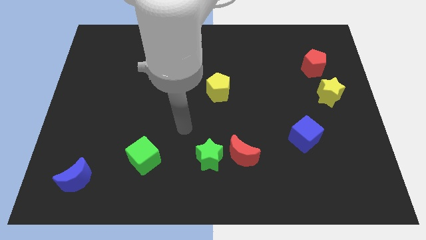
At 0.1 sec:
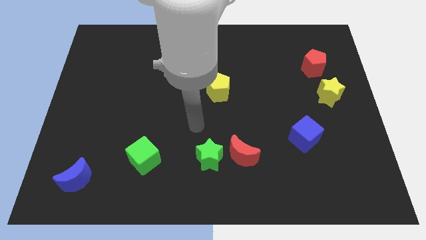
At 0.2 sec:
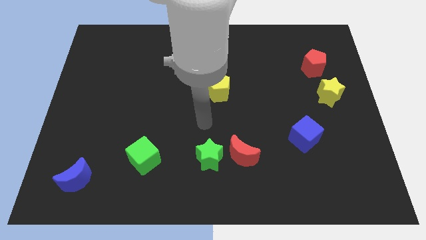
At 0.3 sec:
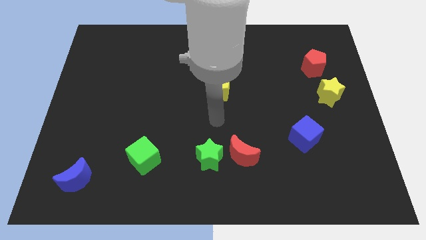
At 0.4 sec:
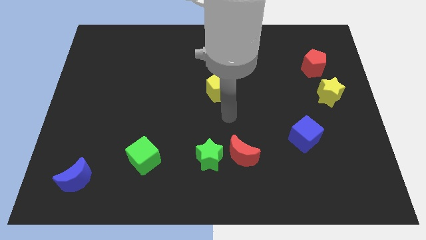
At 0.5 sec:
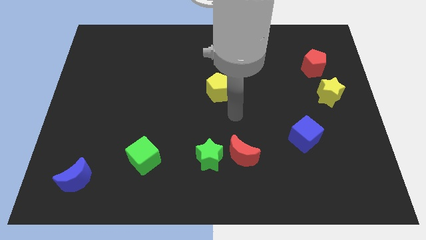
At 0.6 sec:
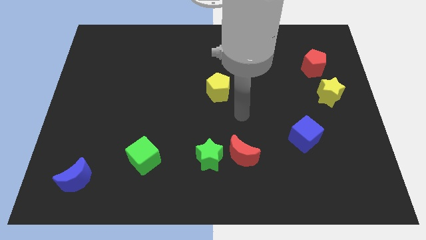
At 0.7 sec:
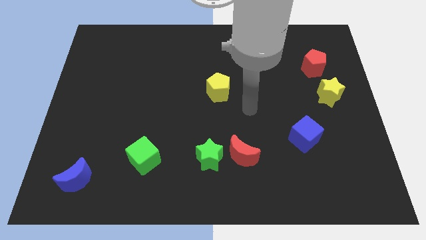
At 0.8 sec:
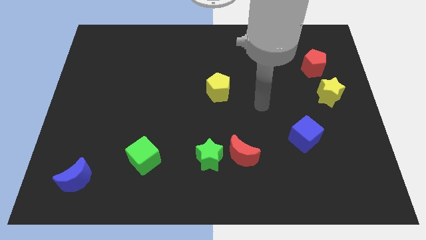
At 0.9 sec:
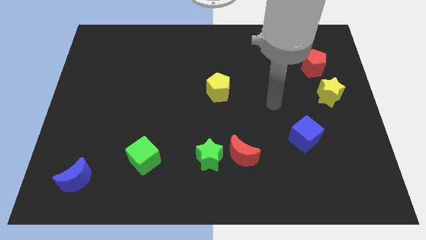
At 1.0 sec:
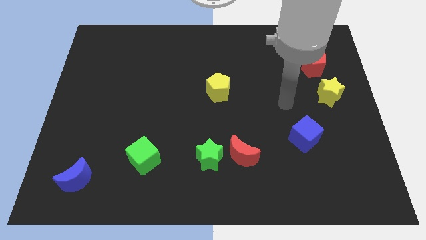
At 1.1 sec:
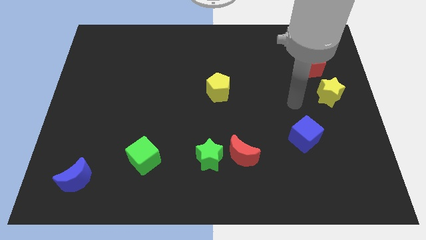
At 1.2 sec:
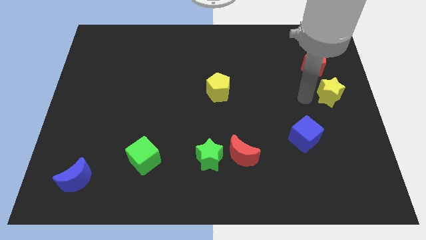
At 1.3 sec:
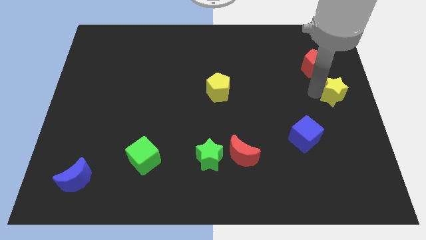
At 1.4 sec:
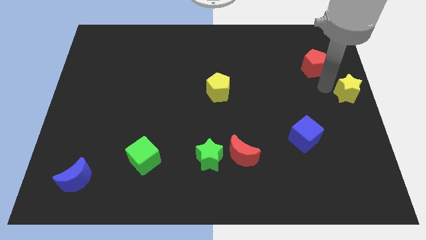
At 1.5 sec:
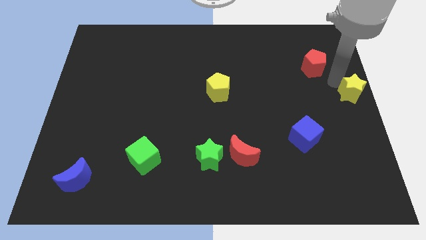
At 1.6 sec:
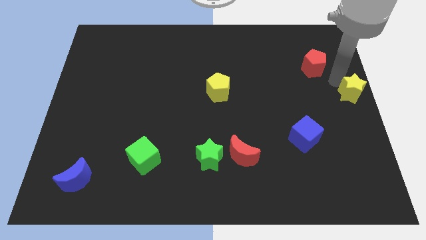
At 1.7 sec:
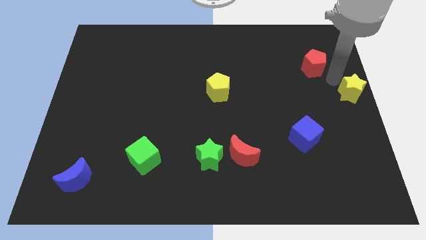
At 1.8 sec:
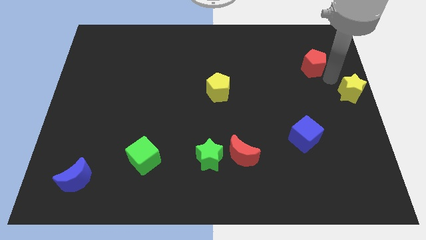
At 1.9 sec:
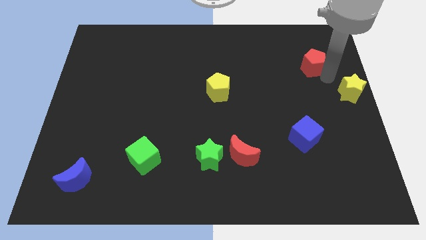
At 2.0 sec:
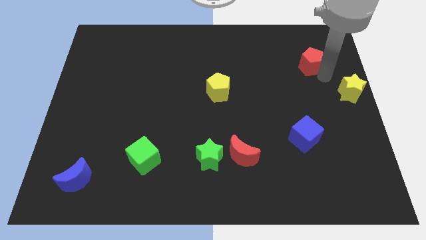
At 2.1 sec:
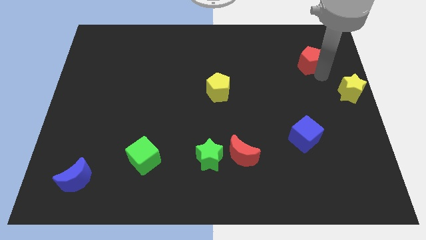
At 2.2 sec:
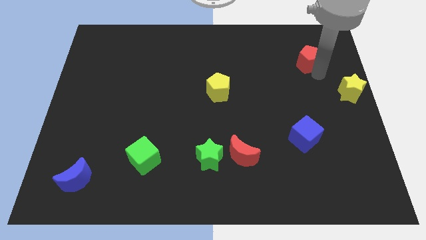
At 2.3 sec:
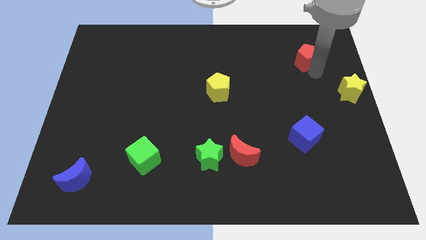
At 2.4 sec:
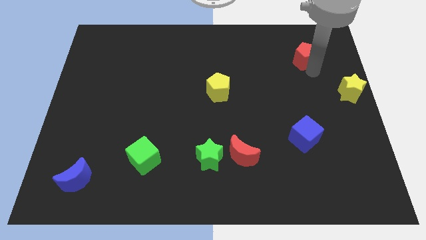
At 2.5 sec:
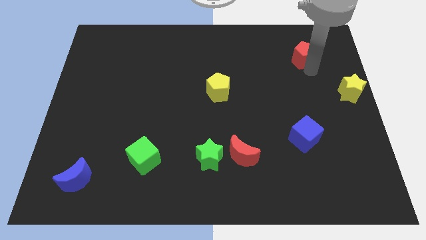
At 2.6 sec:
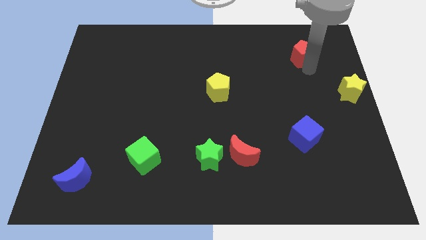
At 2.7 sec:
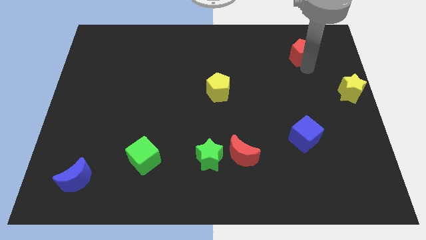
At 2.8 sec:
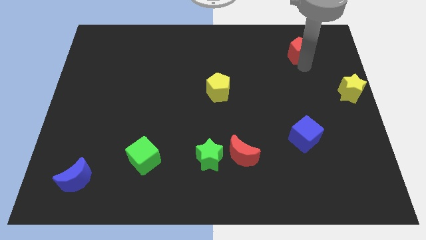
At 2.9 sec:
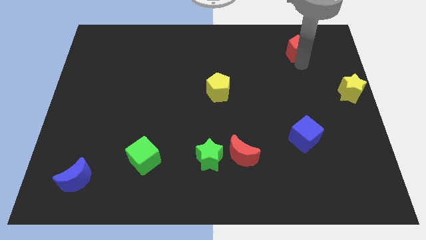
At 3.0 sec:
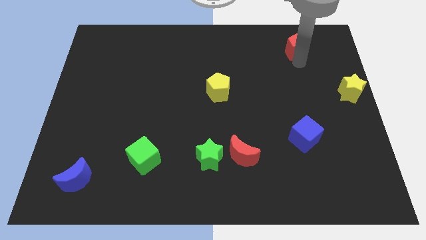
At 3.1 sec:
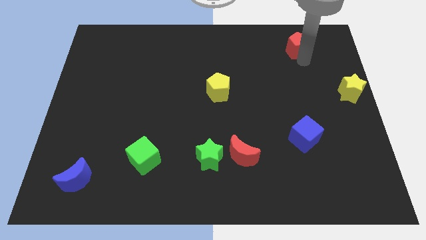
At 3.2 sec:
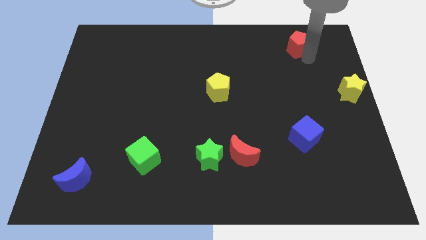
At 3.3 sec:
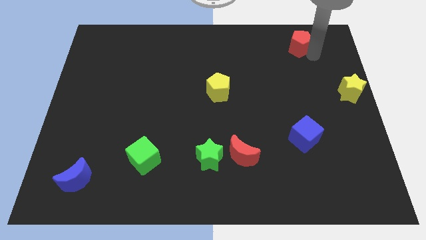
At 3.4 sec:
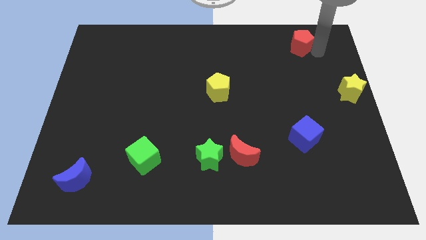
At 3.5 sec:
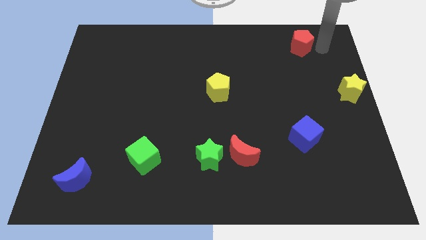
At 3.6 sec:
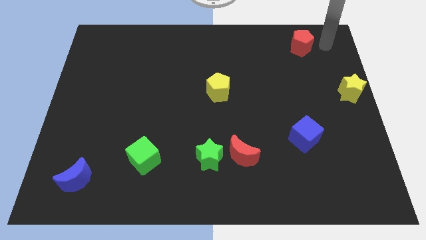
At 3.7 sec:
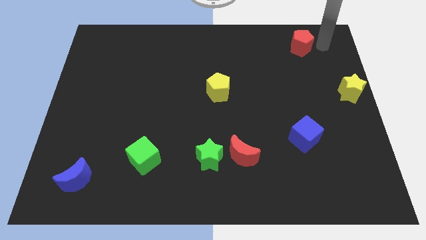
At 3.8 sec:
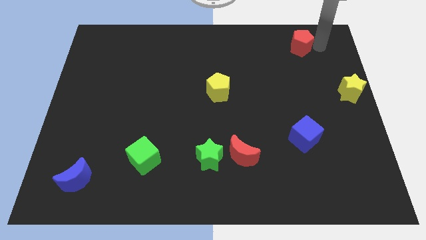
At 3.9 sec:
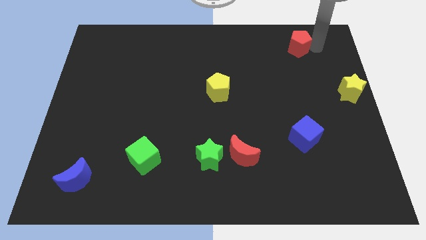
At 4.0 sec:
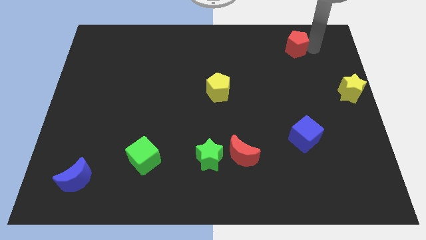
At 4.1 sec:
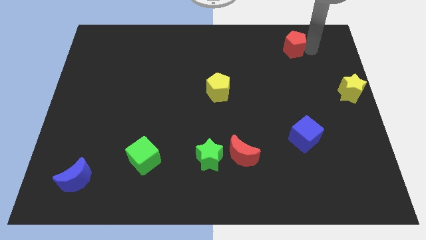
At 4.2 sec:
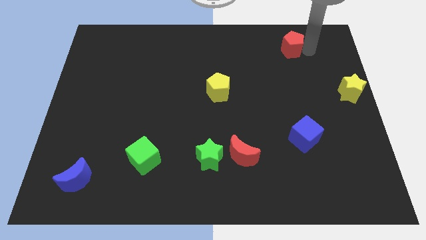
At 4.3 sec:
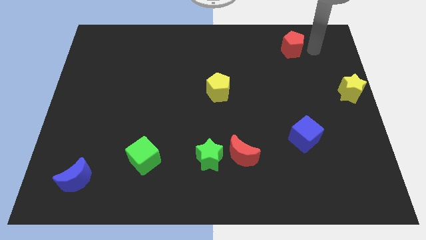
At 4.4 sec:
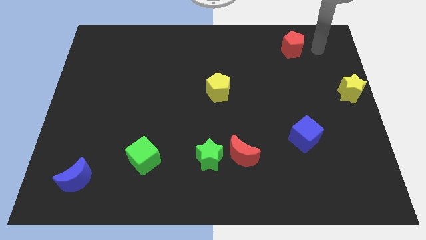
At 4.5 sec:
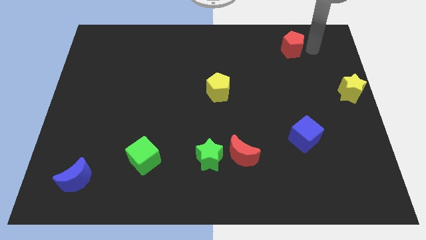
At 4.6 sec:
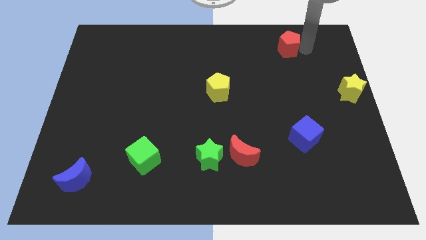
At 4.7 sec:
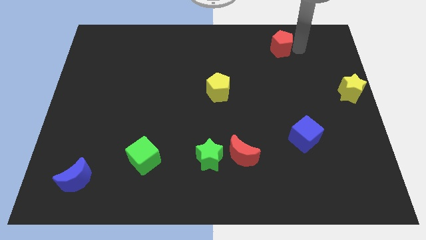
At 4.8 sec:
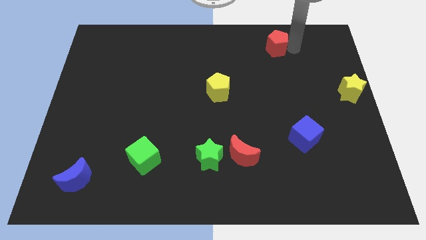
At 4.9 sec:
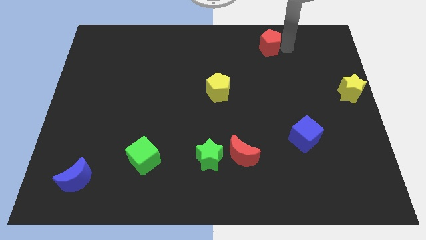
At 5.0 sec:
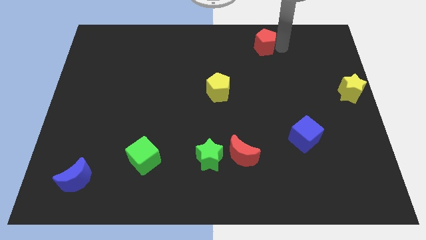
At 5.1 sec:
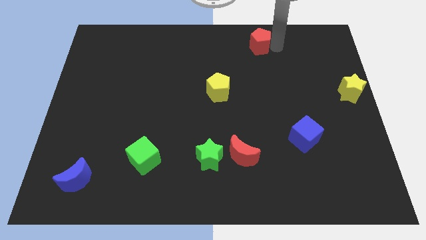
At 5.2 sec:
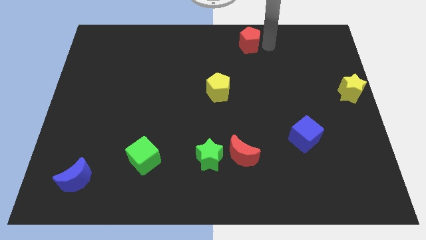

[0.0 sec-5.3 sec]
move the red pentagon to the towards your base

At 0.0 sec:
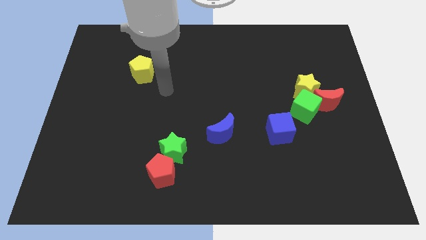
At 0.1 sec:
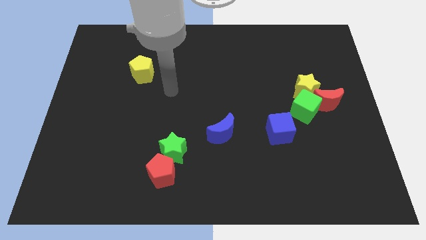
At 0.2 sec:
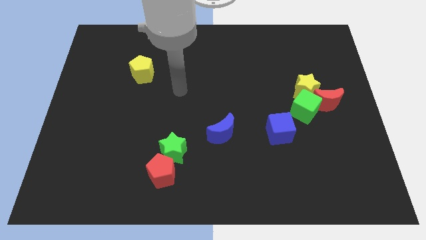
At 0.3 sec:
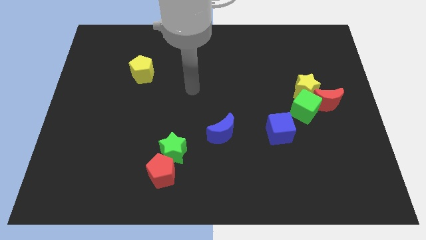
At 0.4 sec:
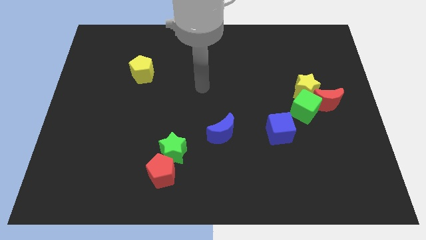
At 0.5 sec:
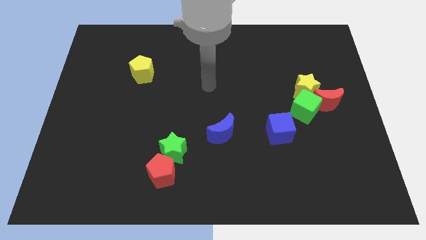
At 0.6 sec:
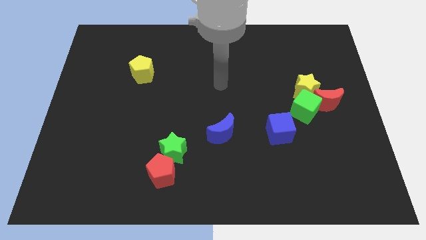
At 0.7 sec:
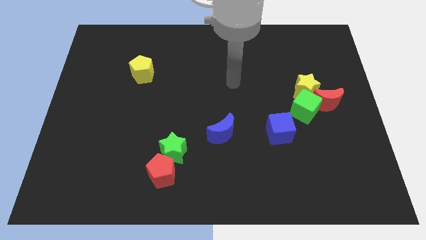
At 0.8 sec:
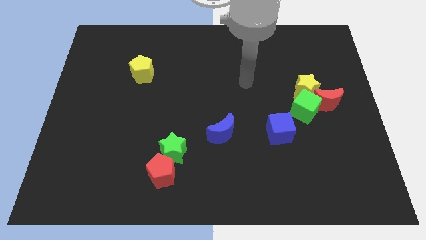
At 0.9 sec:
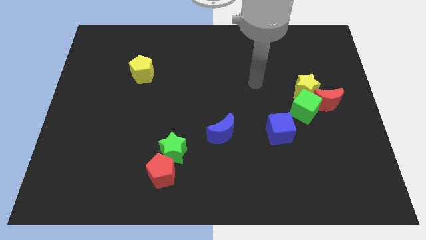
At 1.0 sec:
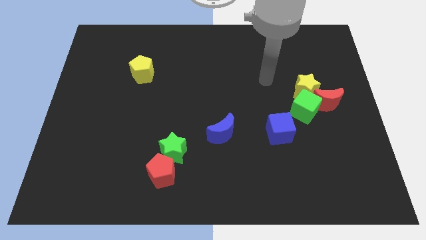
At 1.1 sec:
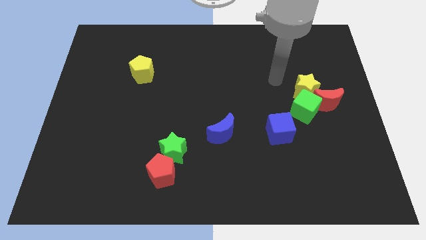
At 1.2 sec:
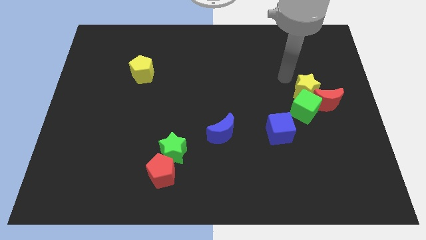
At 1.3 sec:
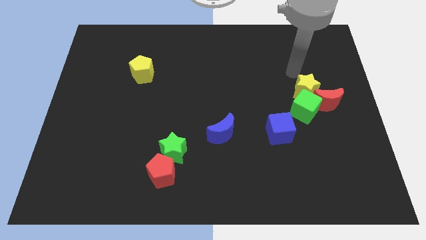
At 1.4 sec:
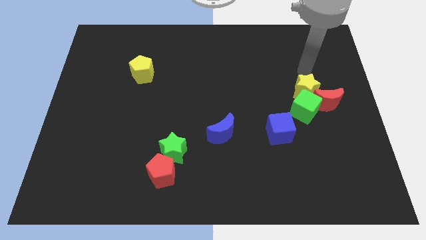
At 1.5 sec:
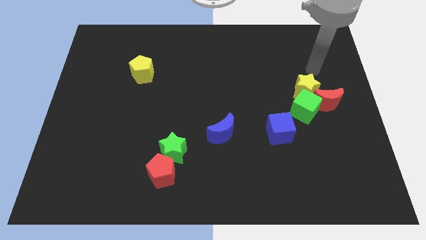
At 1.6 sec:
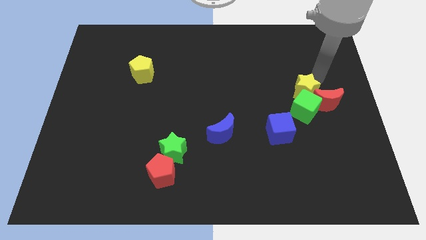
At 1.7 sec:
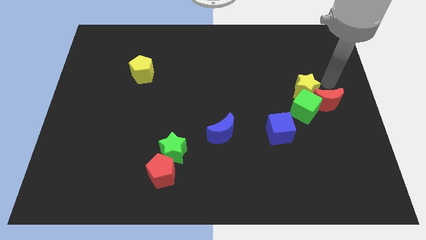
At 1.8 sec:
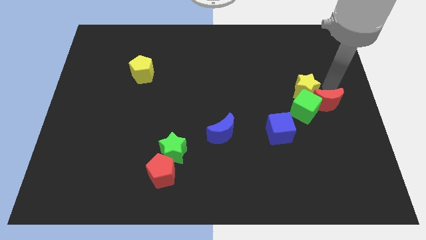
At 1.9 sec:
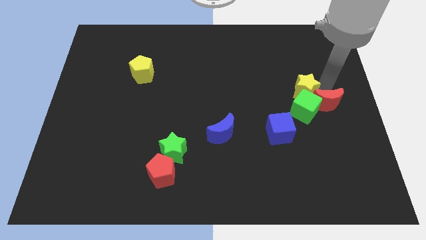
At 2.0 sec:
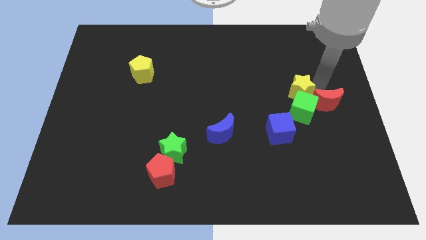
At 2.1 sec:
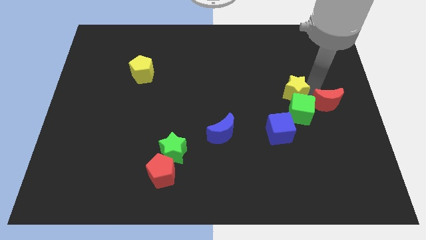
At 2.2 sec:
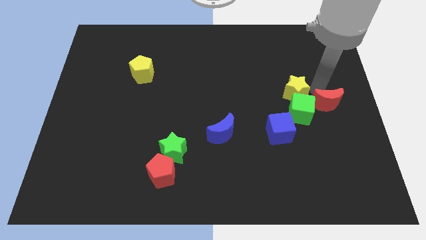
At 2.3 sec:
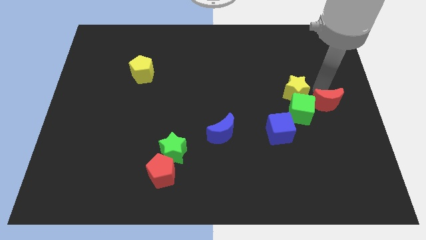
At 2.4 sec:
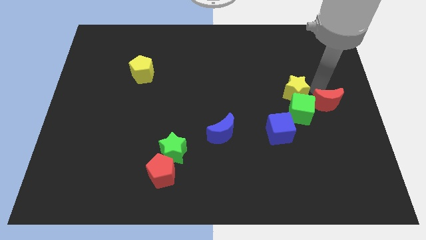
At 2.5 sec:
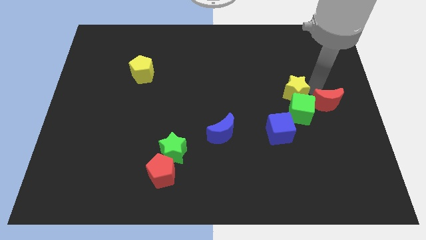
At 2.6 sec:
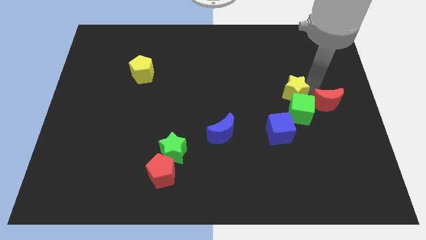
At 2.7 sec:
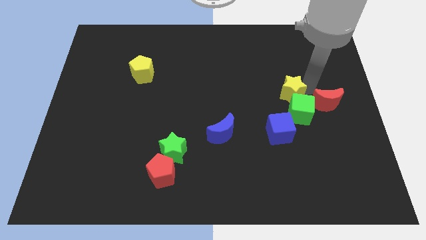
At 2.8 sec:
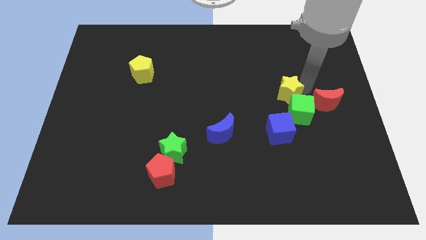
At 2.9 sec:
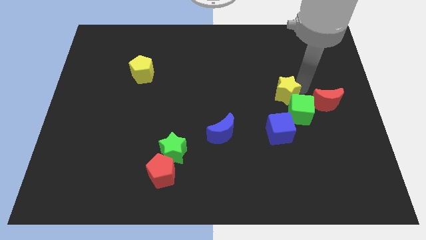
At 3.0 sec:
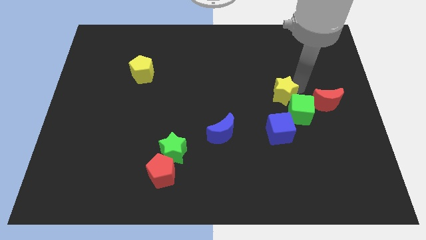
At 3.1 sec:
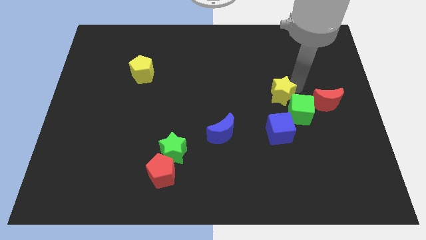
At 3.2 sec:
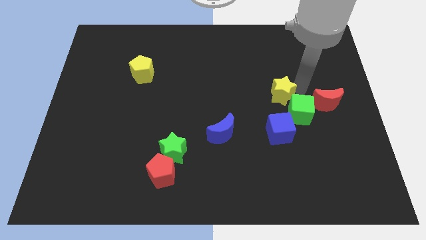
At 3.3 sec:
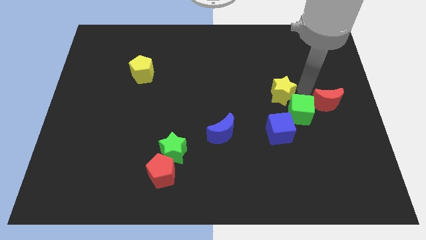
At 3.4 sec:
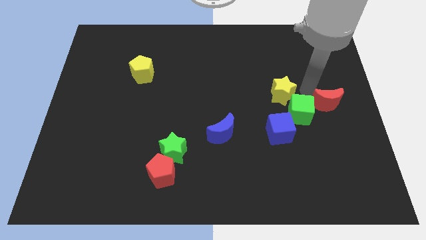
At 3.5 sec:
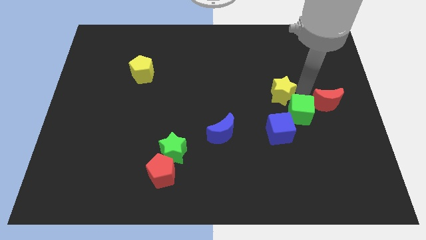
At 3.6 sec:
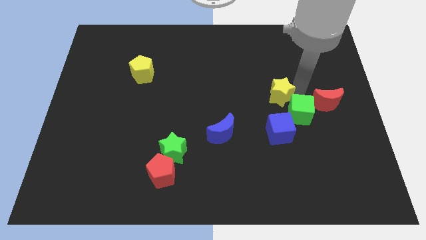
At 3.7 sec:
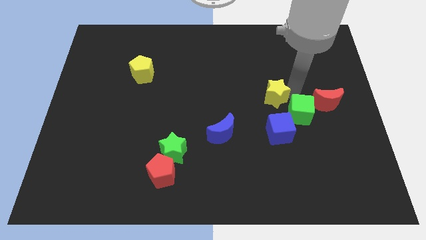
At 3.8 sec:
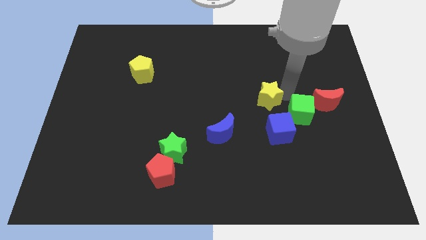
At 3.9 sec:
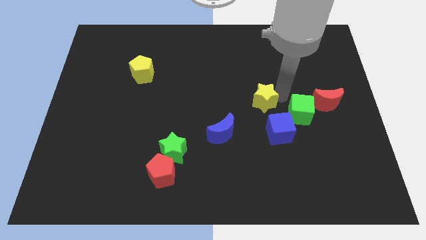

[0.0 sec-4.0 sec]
slide the yellow star to the middle of the board
